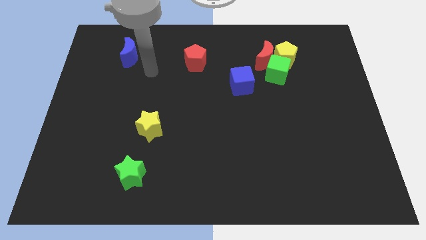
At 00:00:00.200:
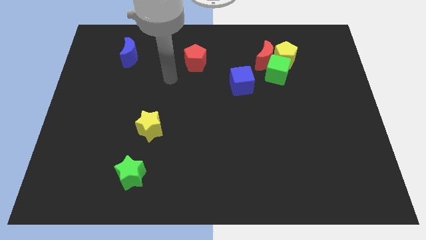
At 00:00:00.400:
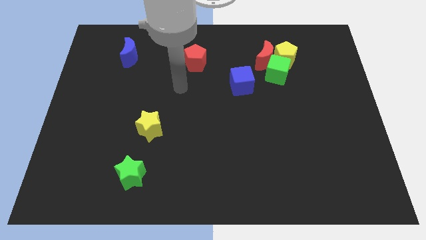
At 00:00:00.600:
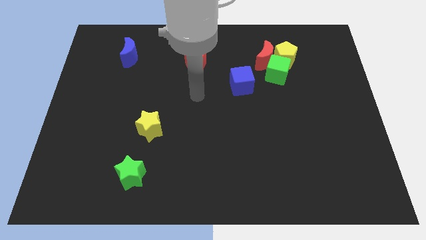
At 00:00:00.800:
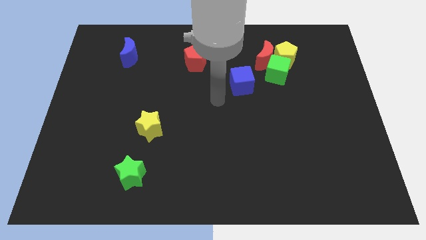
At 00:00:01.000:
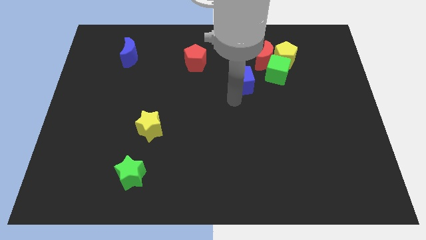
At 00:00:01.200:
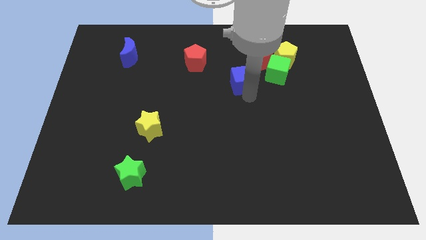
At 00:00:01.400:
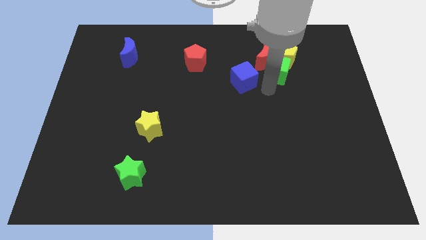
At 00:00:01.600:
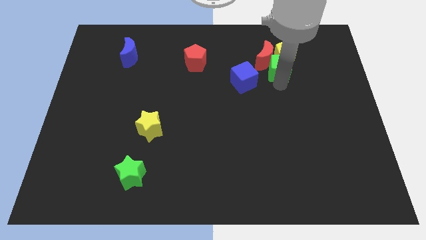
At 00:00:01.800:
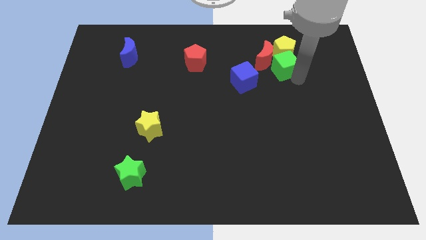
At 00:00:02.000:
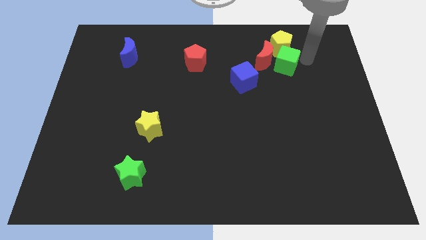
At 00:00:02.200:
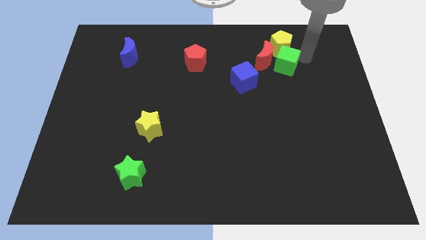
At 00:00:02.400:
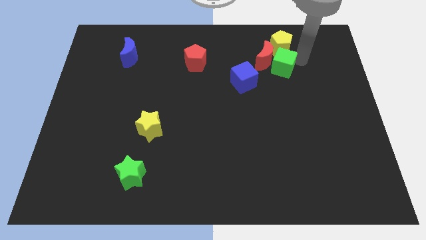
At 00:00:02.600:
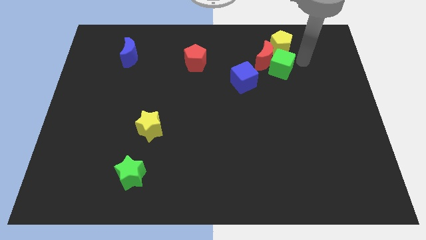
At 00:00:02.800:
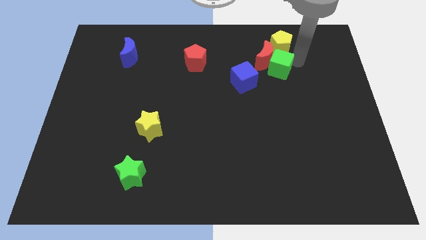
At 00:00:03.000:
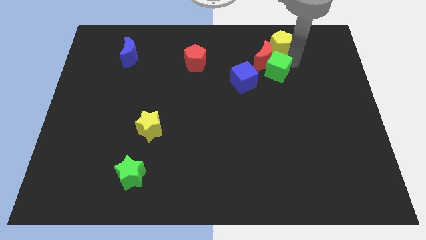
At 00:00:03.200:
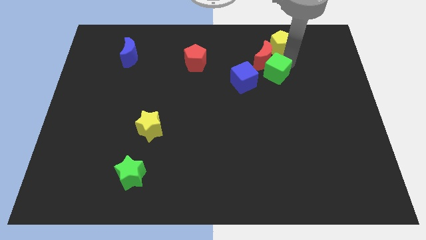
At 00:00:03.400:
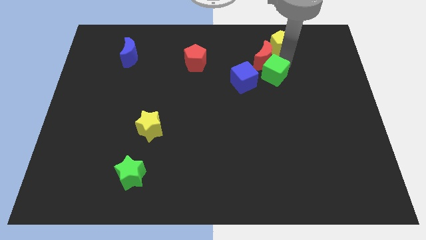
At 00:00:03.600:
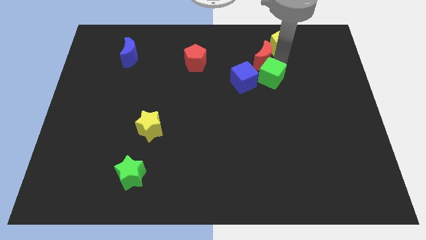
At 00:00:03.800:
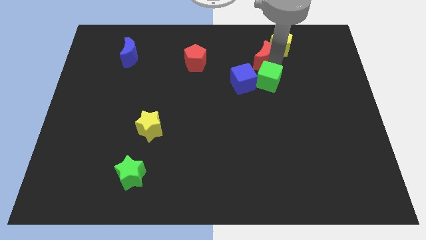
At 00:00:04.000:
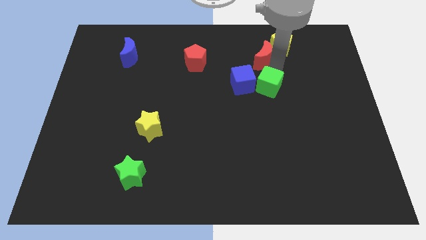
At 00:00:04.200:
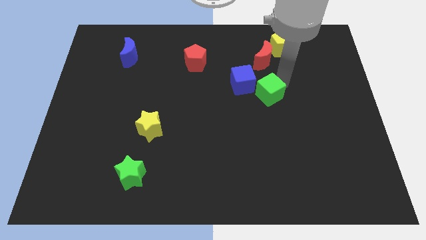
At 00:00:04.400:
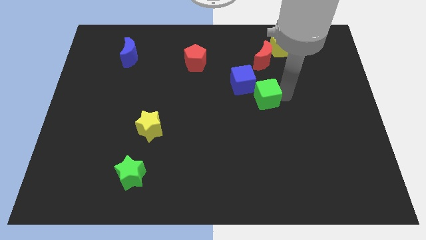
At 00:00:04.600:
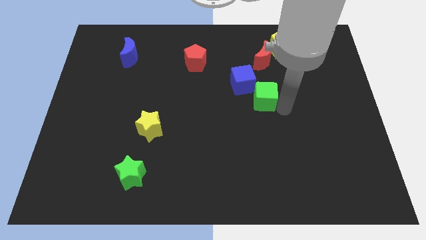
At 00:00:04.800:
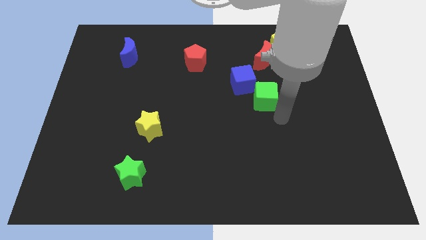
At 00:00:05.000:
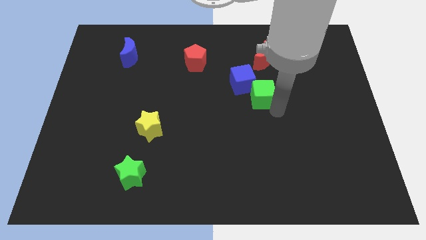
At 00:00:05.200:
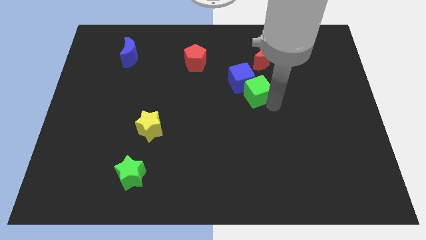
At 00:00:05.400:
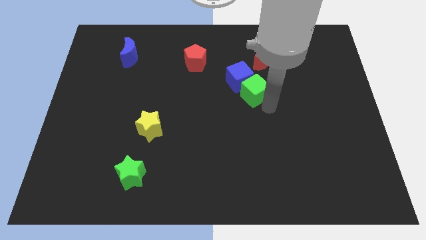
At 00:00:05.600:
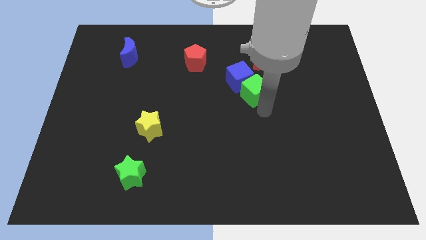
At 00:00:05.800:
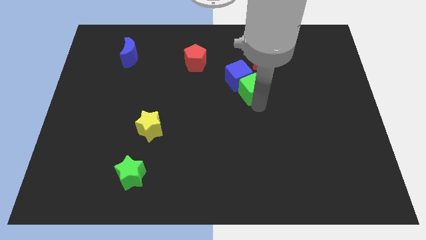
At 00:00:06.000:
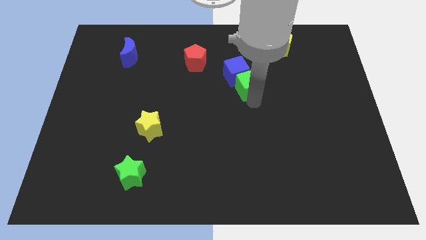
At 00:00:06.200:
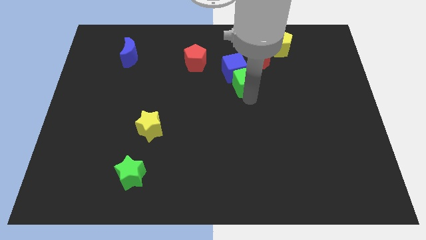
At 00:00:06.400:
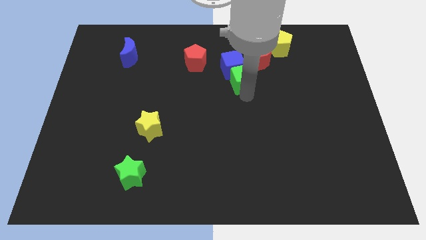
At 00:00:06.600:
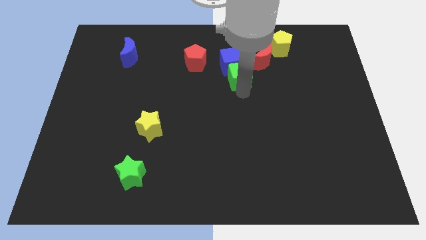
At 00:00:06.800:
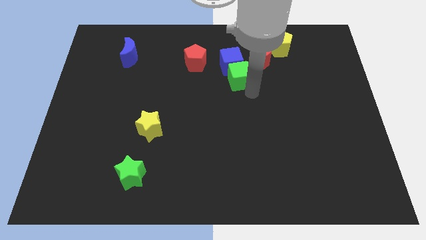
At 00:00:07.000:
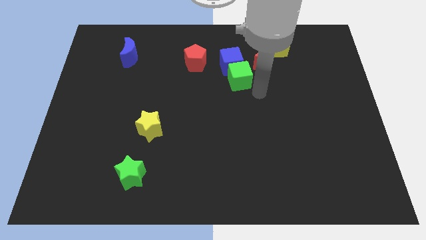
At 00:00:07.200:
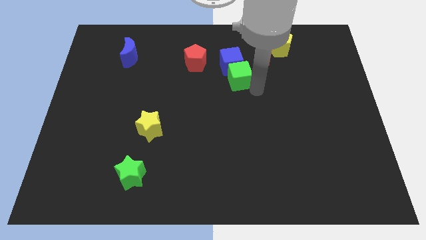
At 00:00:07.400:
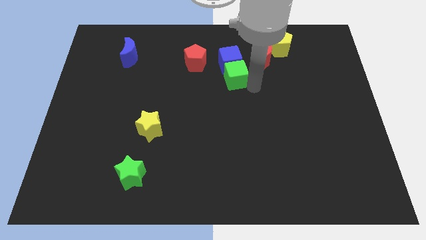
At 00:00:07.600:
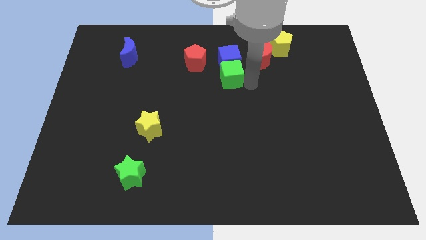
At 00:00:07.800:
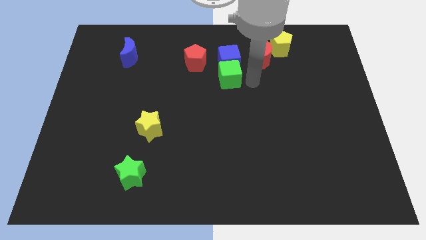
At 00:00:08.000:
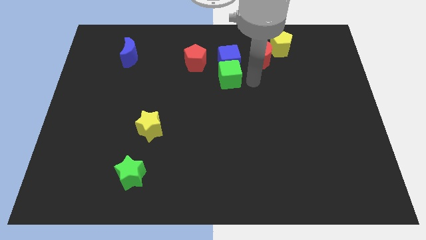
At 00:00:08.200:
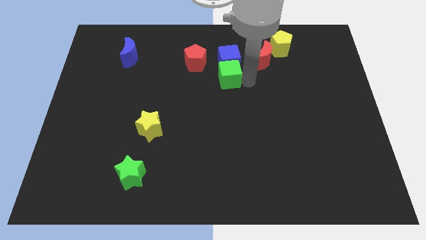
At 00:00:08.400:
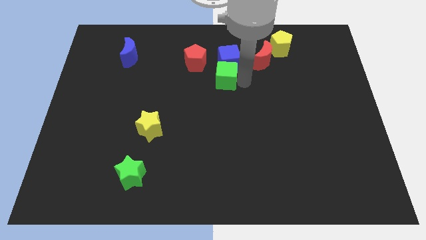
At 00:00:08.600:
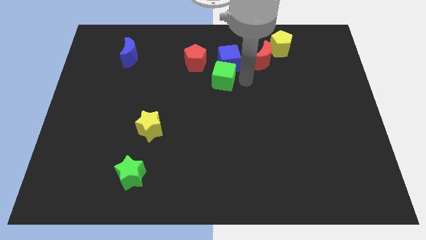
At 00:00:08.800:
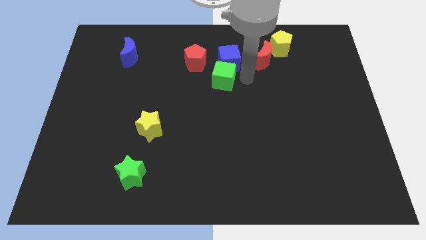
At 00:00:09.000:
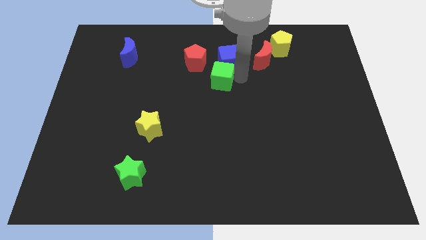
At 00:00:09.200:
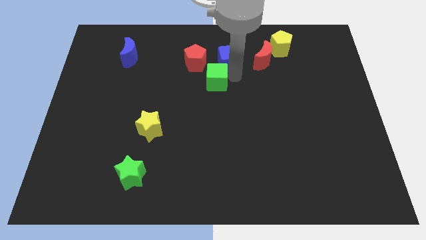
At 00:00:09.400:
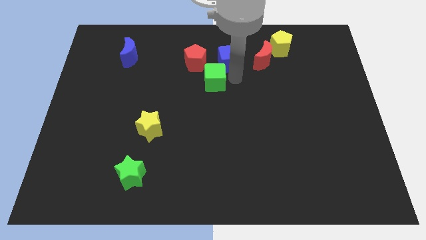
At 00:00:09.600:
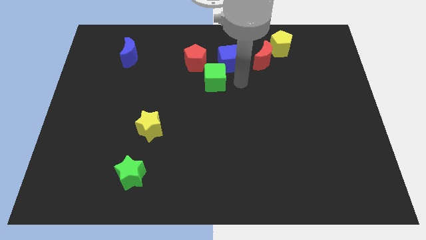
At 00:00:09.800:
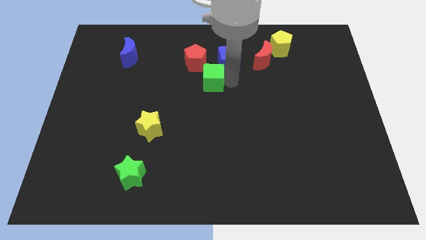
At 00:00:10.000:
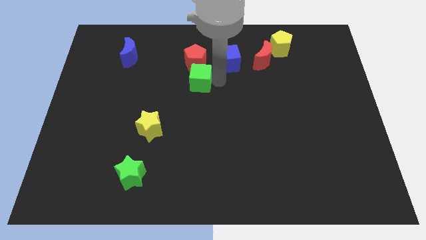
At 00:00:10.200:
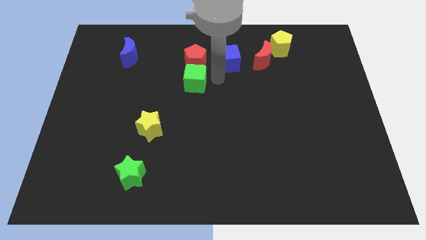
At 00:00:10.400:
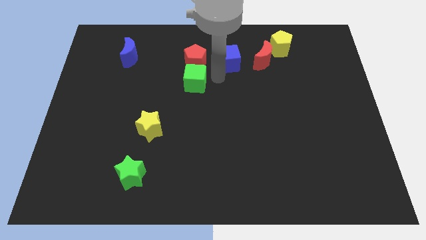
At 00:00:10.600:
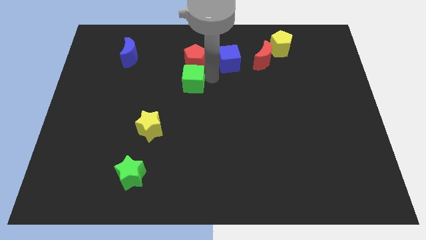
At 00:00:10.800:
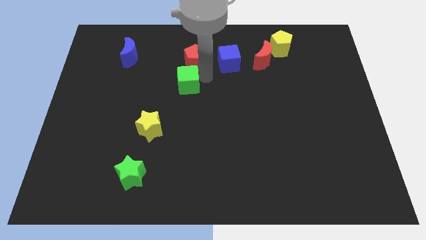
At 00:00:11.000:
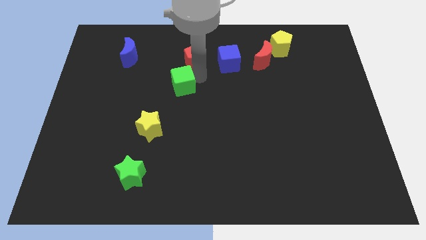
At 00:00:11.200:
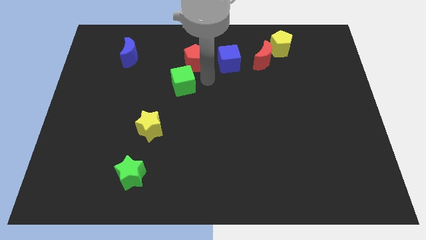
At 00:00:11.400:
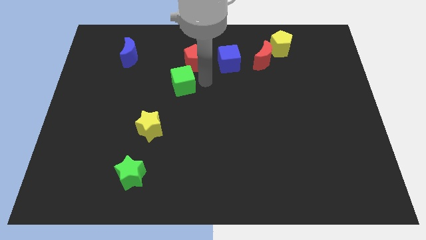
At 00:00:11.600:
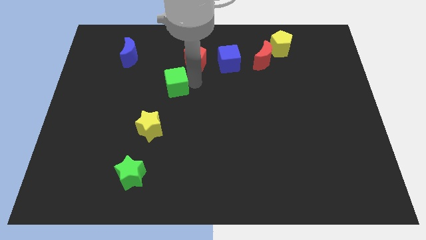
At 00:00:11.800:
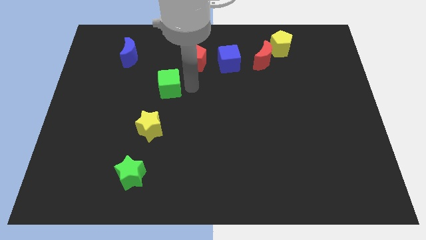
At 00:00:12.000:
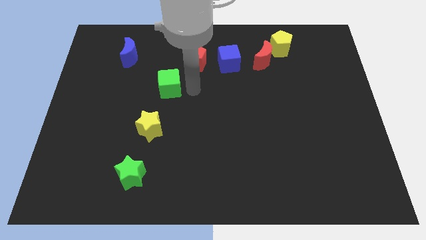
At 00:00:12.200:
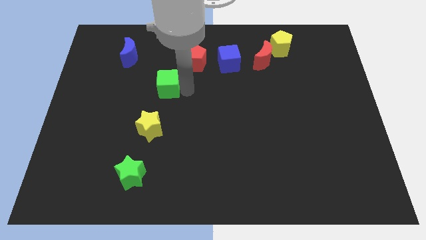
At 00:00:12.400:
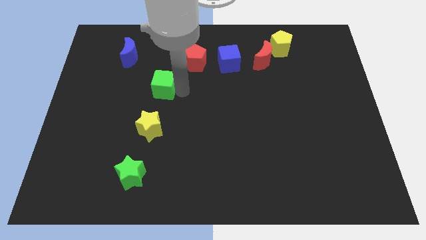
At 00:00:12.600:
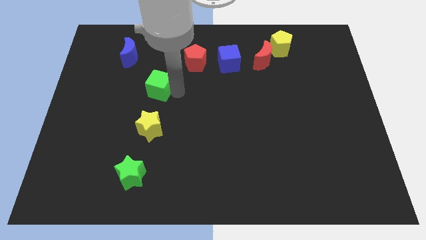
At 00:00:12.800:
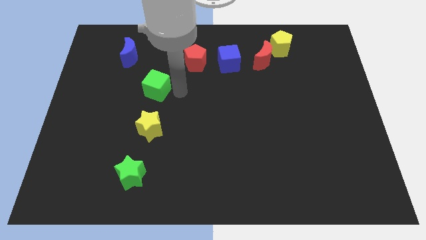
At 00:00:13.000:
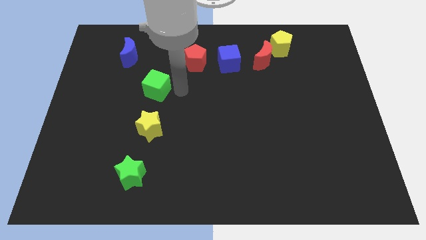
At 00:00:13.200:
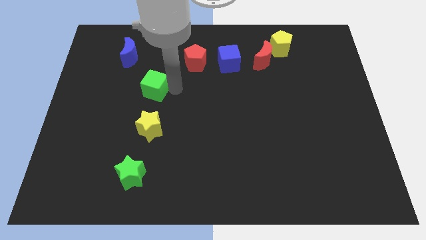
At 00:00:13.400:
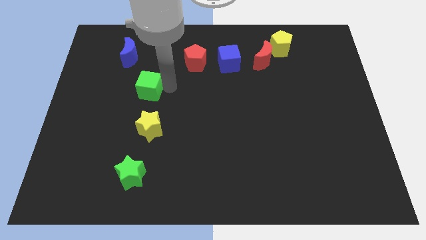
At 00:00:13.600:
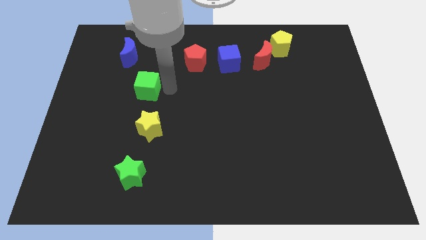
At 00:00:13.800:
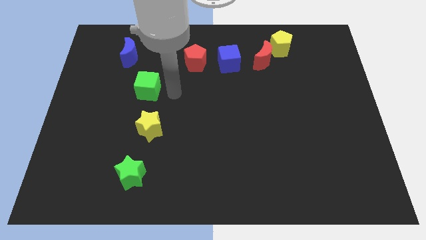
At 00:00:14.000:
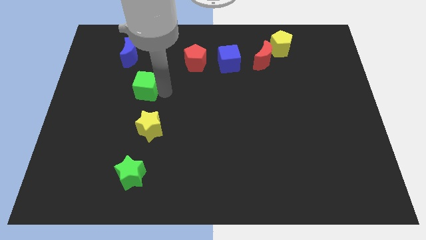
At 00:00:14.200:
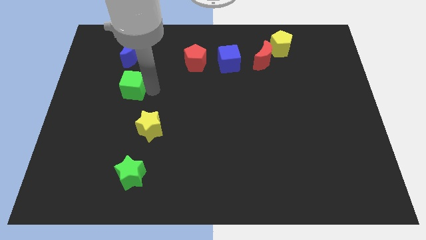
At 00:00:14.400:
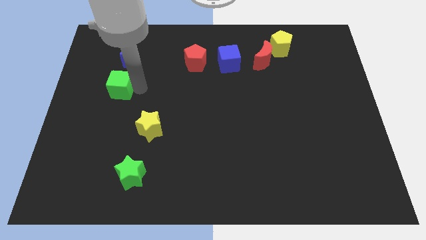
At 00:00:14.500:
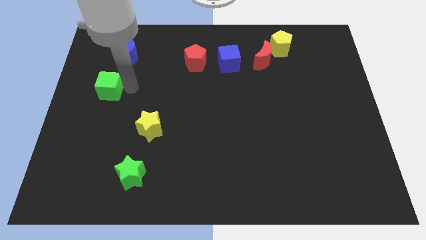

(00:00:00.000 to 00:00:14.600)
put the green cube to the left side of the board
